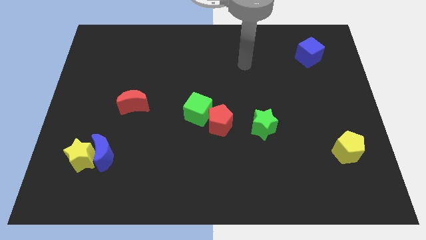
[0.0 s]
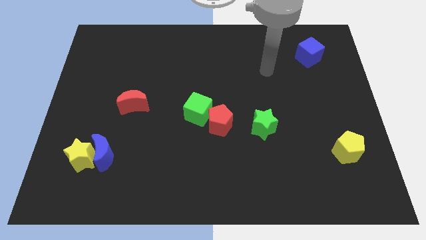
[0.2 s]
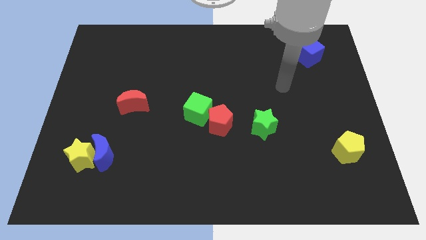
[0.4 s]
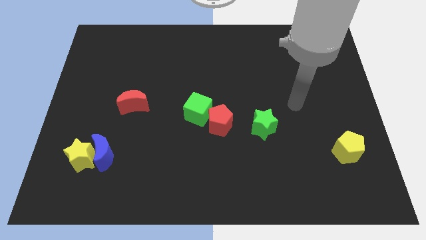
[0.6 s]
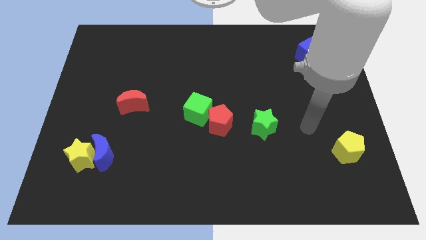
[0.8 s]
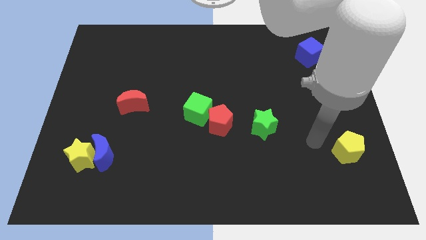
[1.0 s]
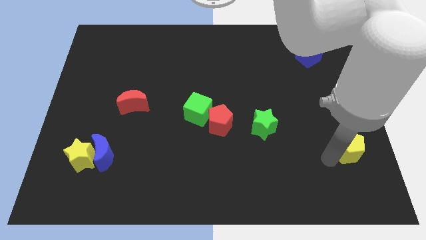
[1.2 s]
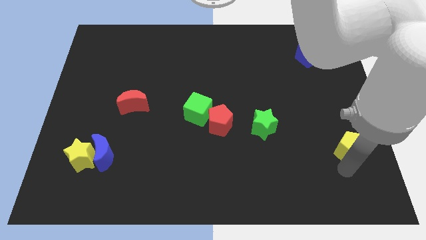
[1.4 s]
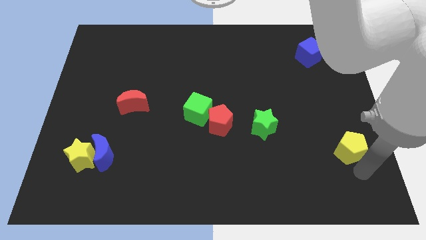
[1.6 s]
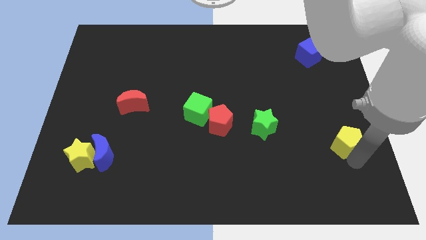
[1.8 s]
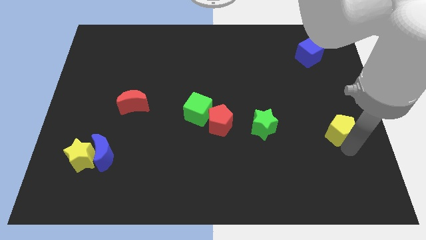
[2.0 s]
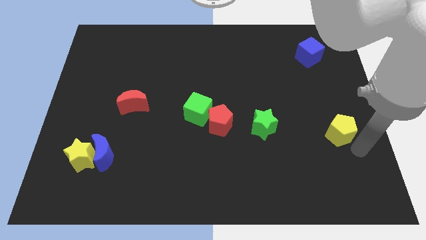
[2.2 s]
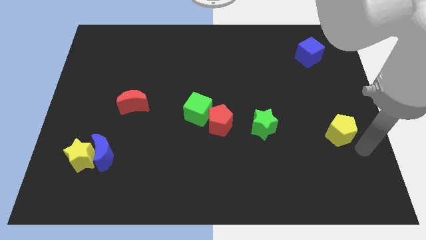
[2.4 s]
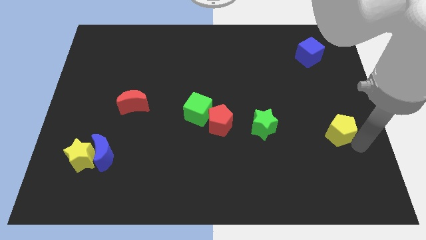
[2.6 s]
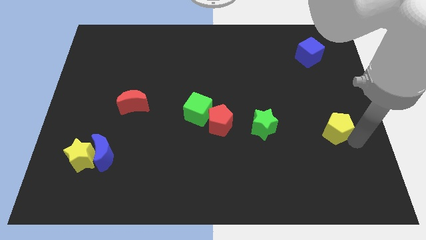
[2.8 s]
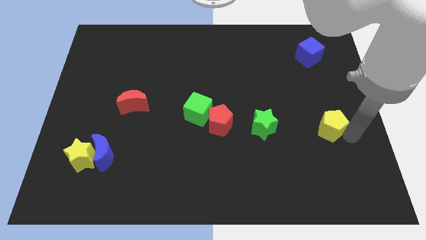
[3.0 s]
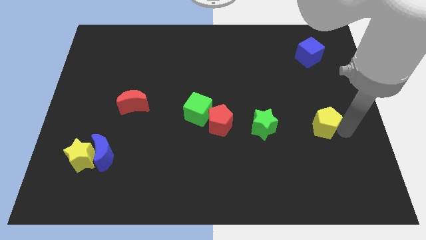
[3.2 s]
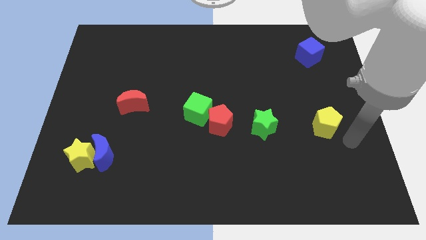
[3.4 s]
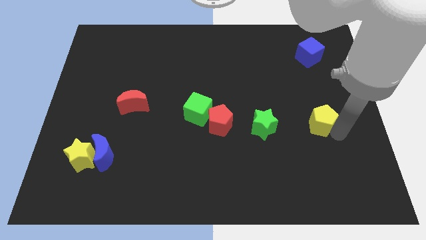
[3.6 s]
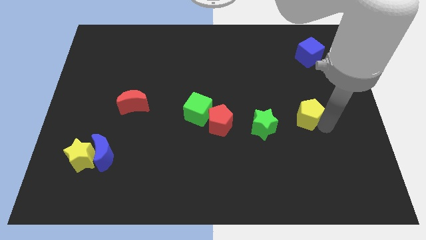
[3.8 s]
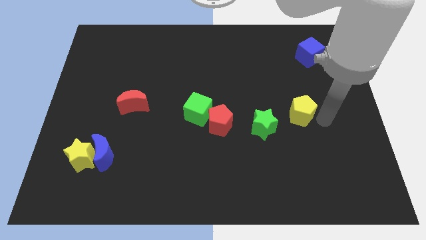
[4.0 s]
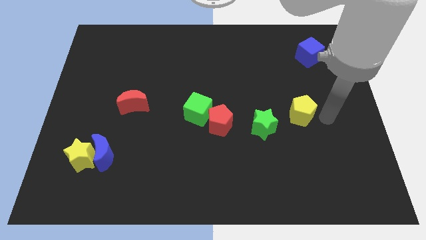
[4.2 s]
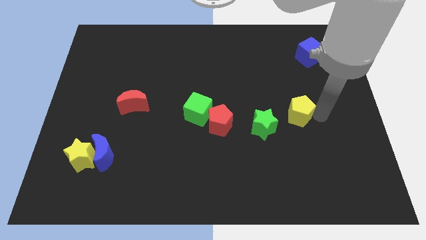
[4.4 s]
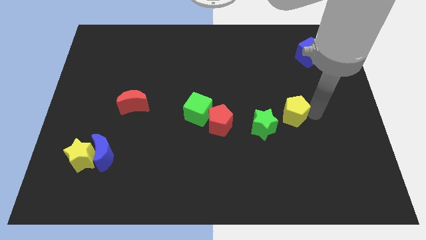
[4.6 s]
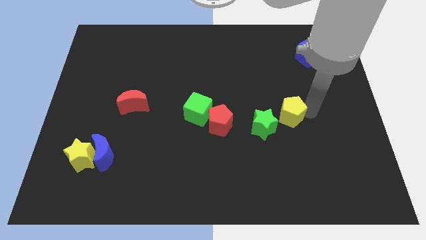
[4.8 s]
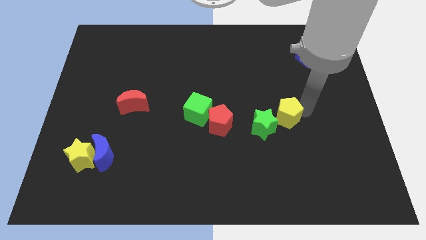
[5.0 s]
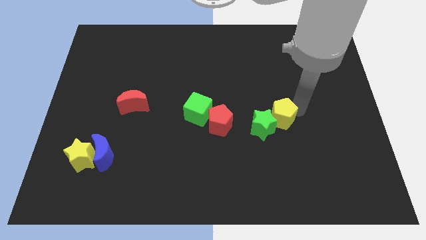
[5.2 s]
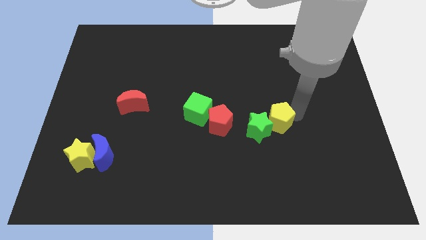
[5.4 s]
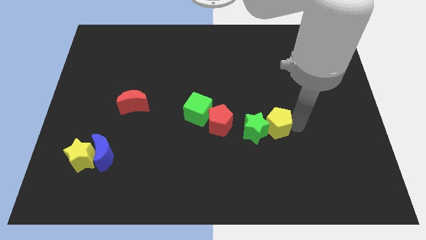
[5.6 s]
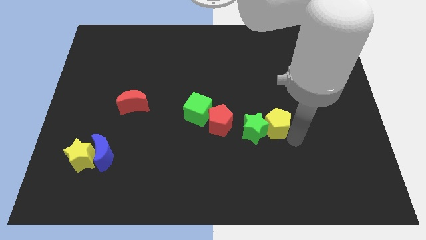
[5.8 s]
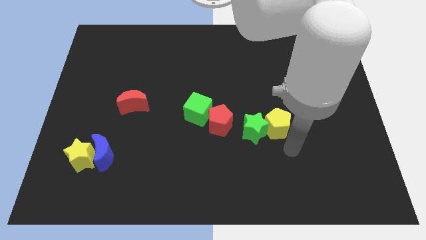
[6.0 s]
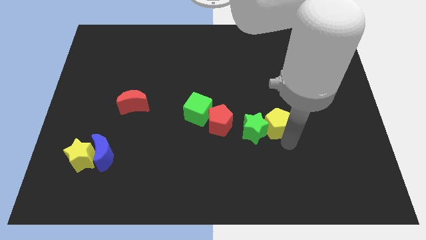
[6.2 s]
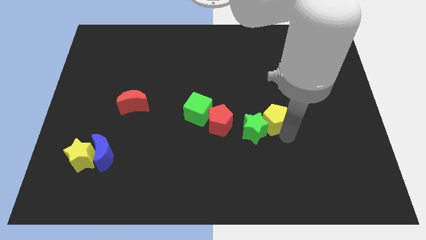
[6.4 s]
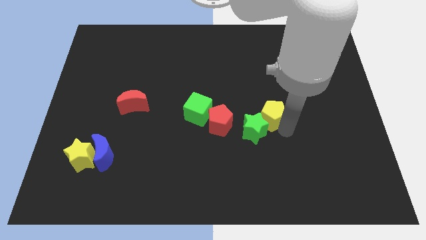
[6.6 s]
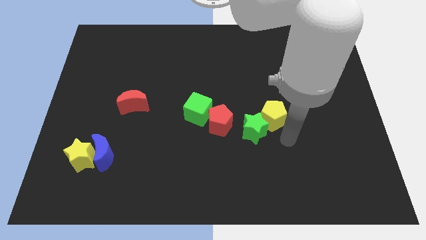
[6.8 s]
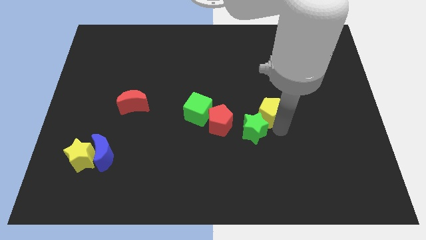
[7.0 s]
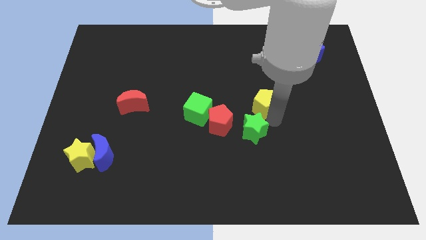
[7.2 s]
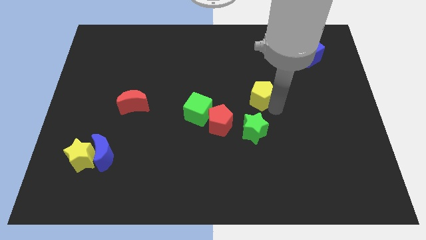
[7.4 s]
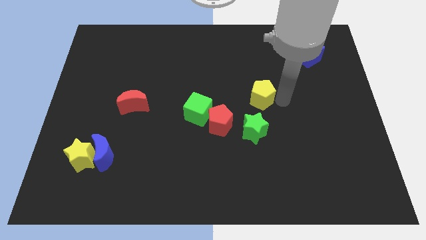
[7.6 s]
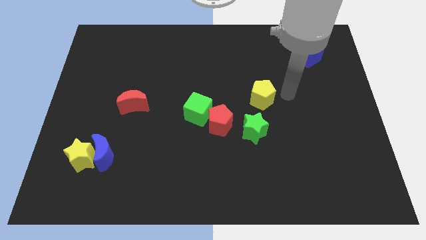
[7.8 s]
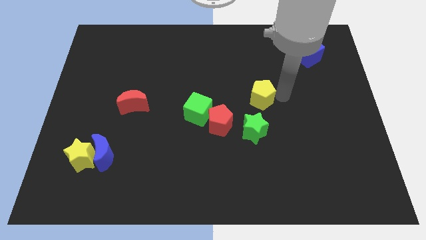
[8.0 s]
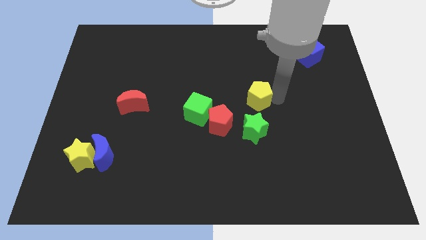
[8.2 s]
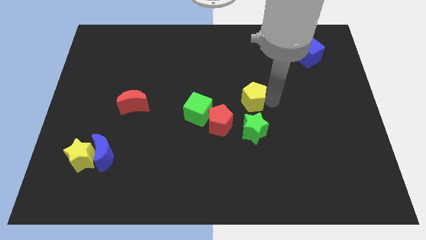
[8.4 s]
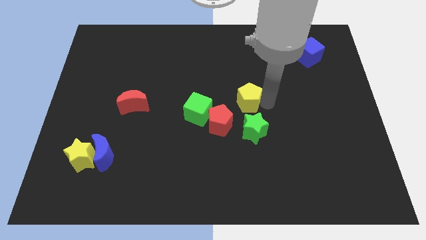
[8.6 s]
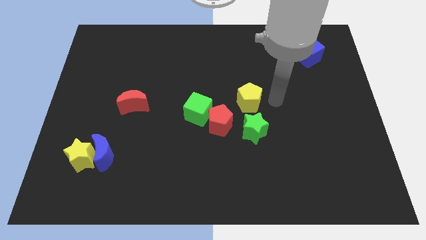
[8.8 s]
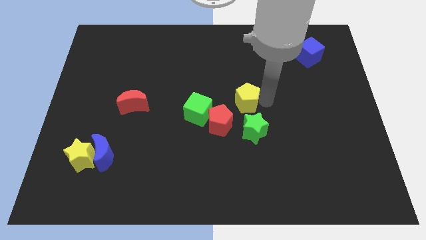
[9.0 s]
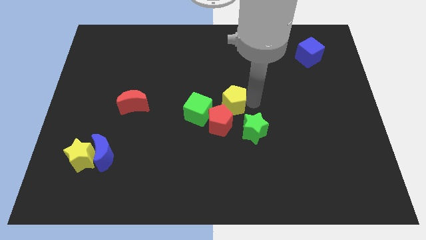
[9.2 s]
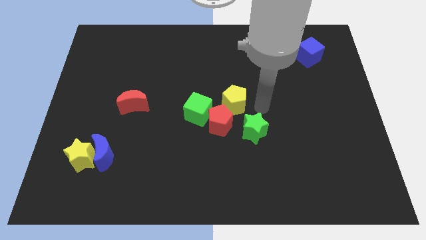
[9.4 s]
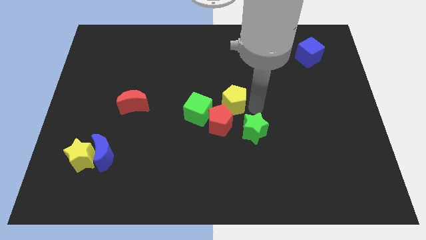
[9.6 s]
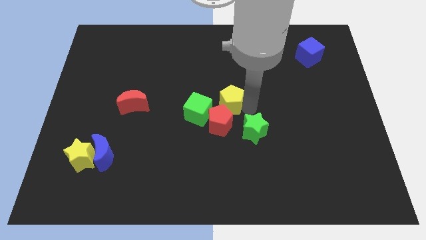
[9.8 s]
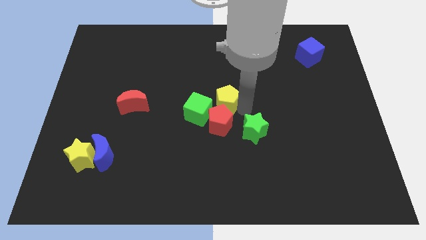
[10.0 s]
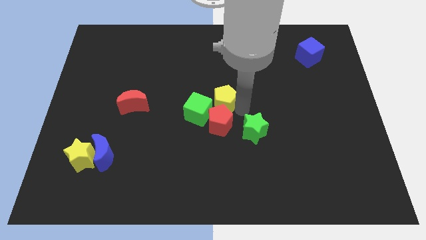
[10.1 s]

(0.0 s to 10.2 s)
slide the yellow pentagon to the top left side of the red pentagon

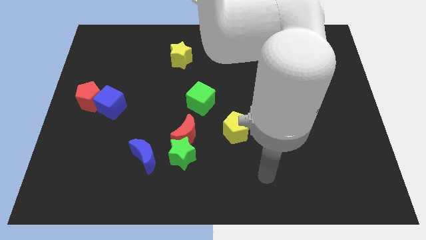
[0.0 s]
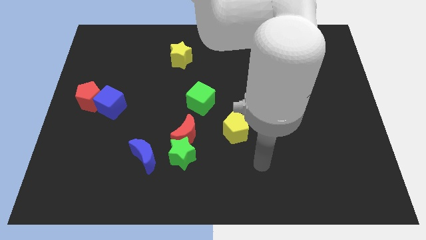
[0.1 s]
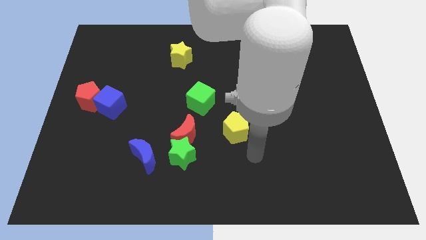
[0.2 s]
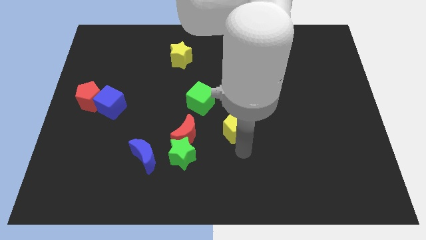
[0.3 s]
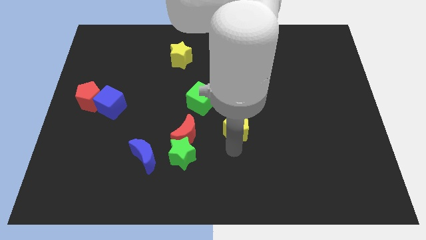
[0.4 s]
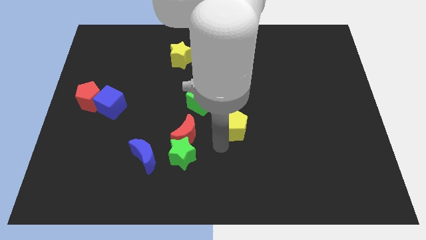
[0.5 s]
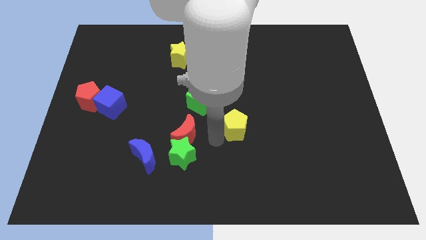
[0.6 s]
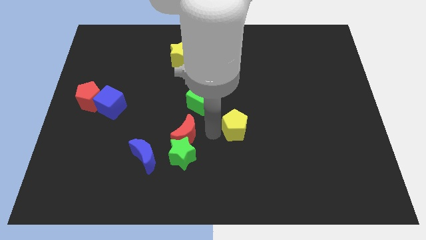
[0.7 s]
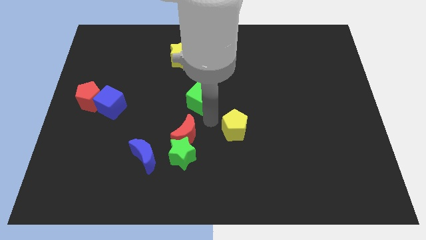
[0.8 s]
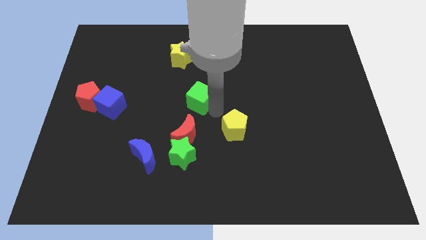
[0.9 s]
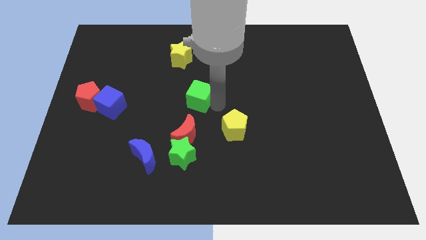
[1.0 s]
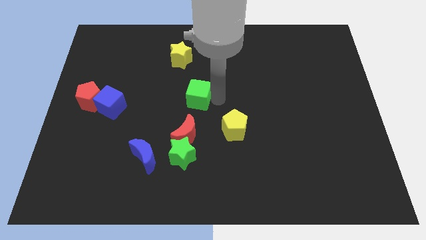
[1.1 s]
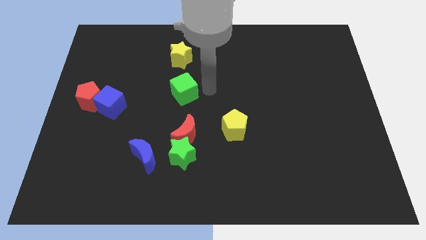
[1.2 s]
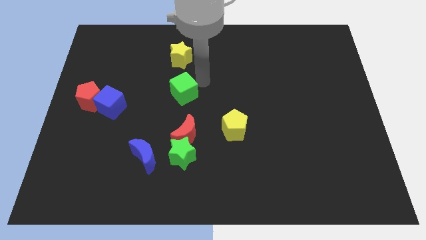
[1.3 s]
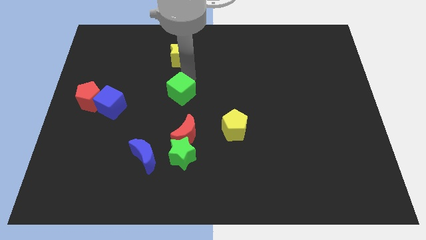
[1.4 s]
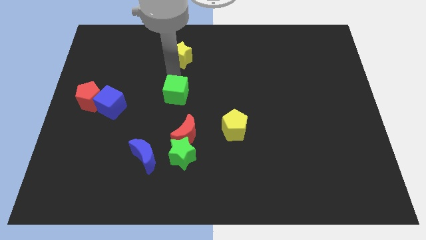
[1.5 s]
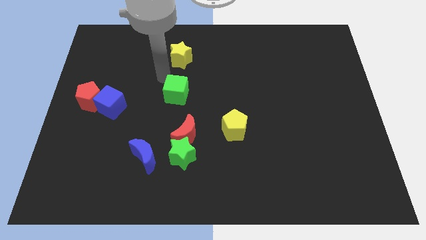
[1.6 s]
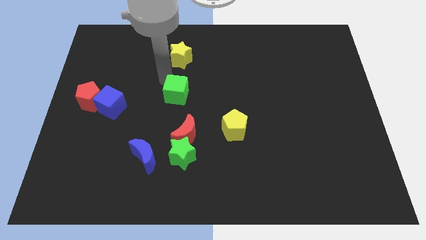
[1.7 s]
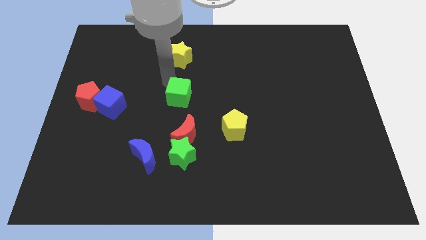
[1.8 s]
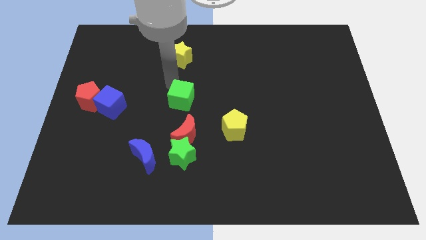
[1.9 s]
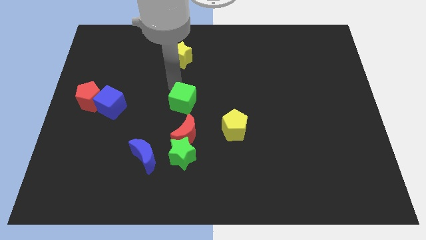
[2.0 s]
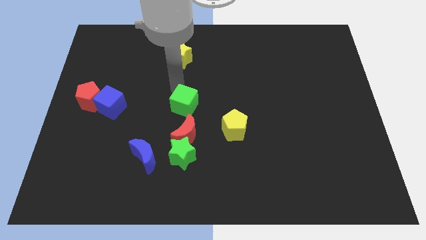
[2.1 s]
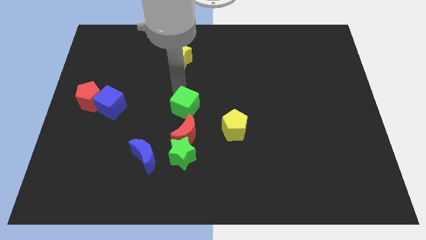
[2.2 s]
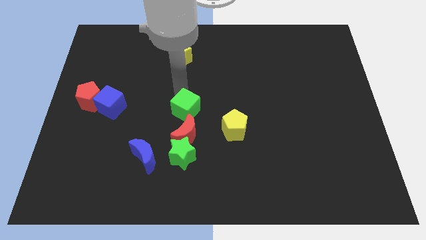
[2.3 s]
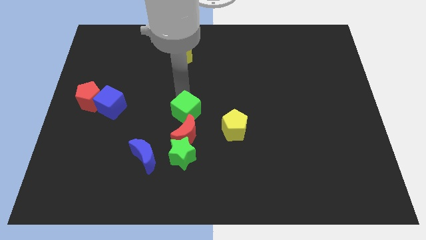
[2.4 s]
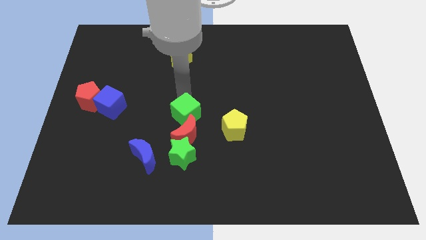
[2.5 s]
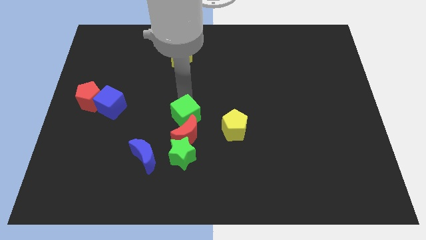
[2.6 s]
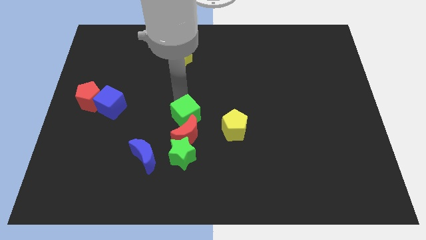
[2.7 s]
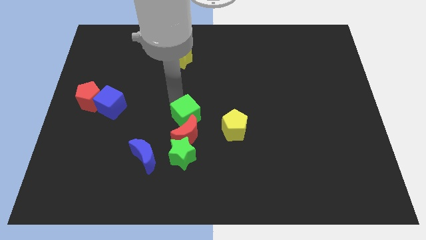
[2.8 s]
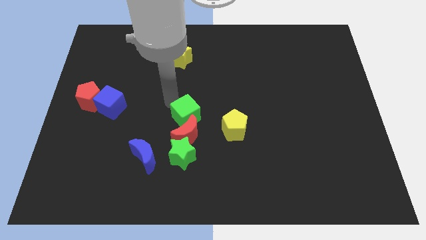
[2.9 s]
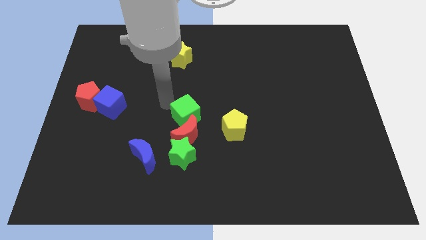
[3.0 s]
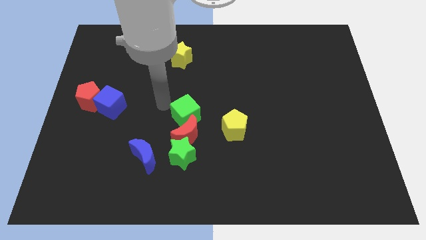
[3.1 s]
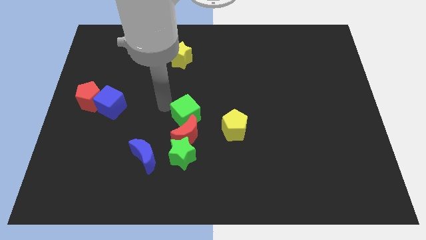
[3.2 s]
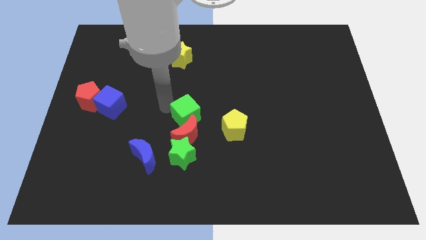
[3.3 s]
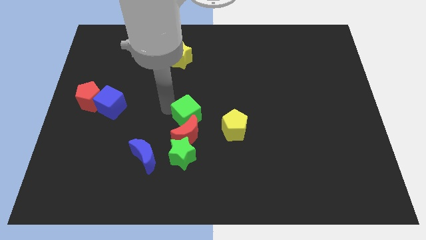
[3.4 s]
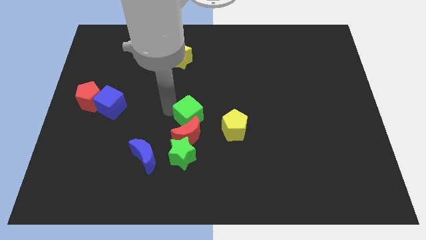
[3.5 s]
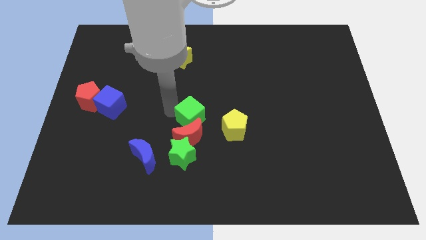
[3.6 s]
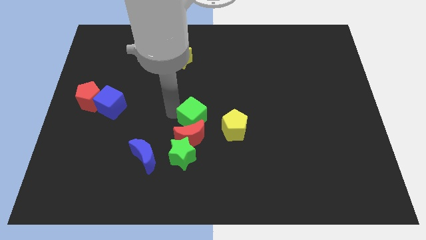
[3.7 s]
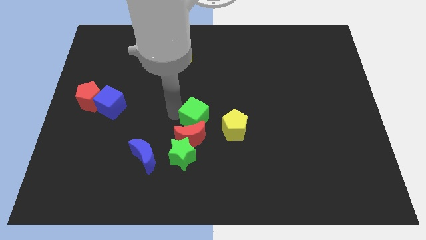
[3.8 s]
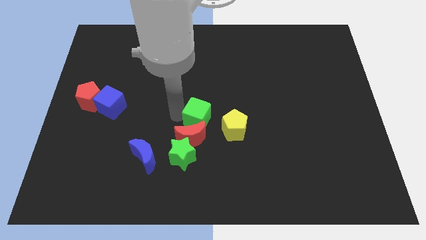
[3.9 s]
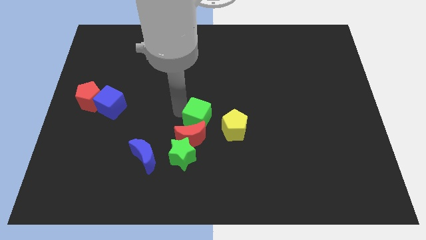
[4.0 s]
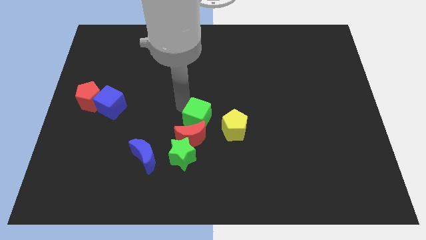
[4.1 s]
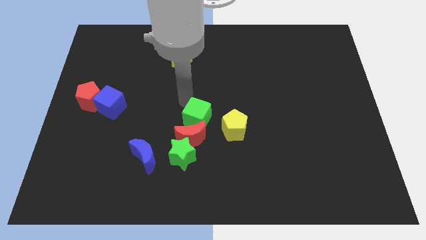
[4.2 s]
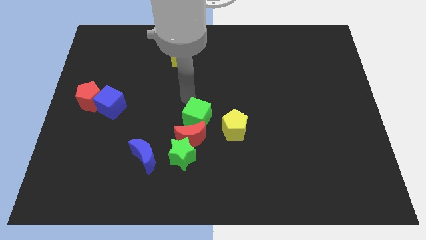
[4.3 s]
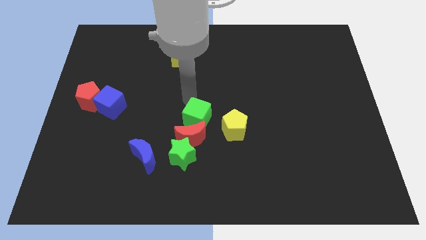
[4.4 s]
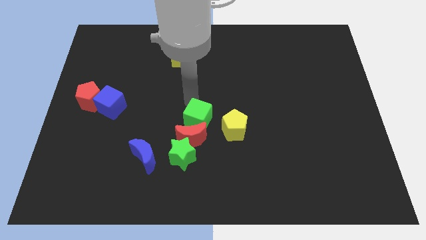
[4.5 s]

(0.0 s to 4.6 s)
move the green cube to the top right of the green star
